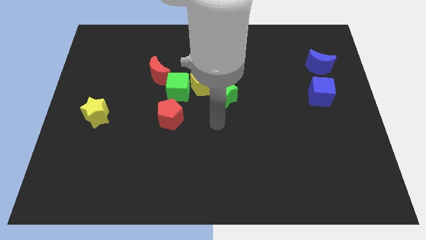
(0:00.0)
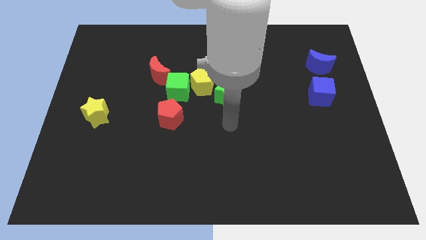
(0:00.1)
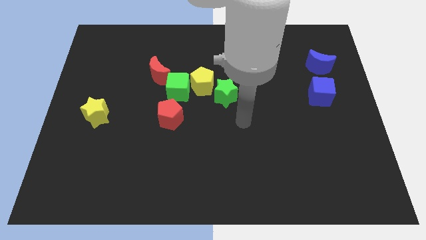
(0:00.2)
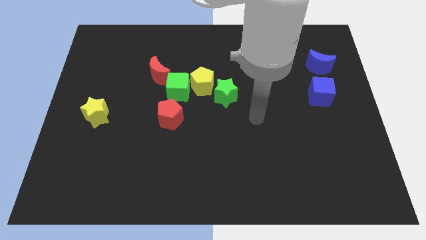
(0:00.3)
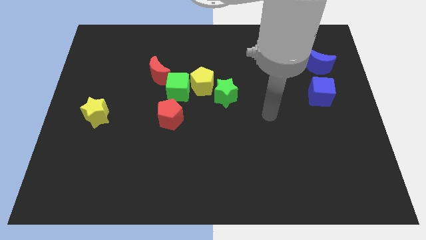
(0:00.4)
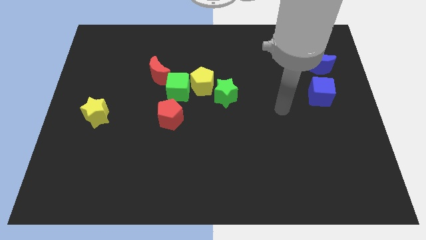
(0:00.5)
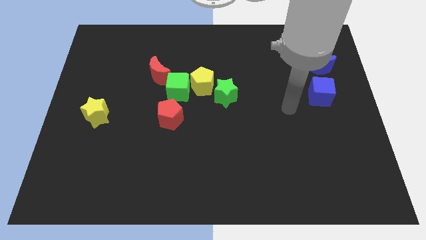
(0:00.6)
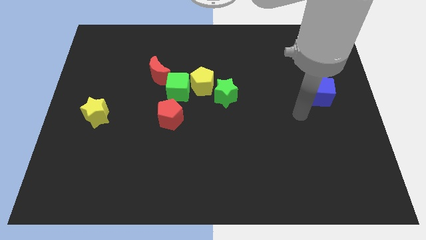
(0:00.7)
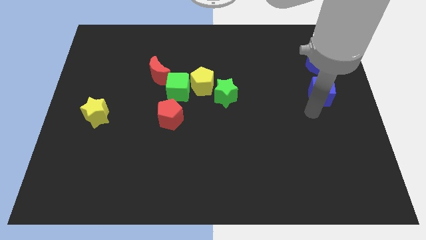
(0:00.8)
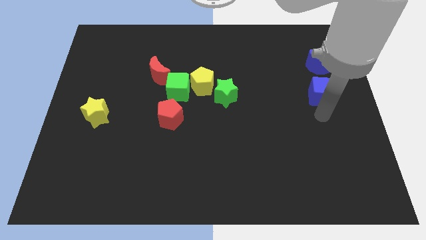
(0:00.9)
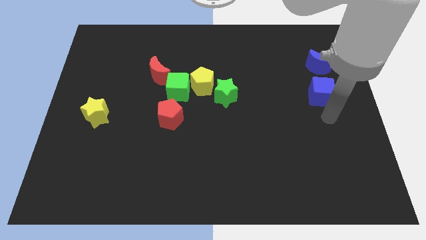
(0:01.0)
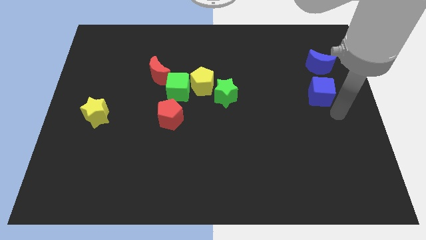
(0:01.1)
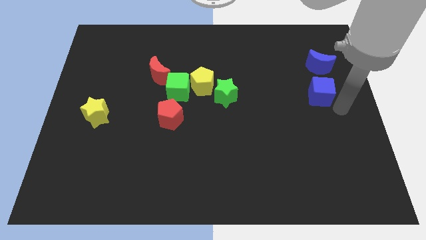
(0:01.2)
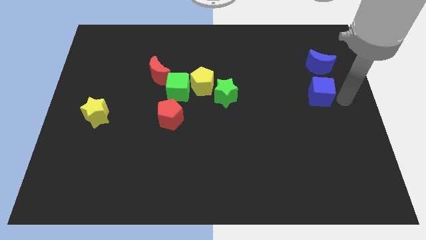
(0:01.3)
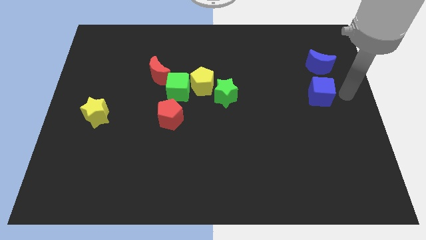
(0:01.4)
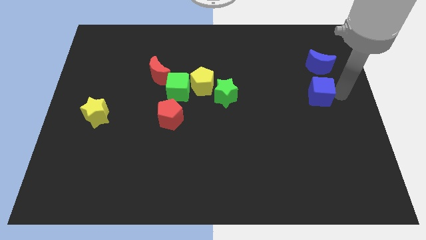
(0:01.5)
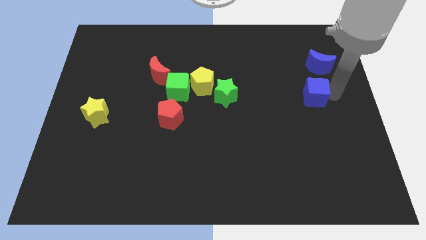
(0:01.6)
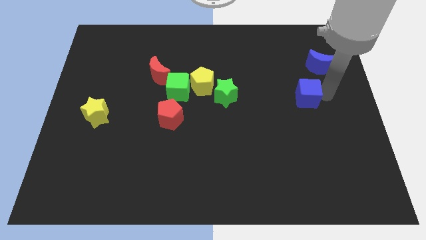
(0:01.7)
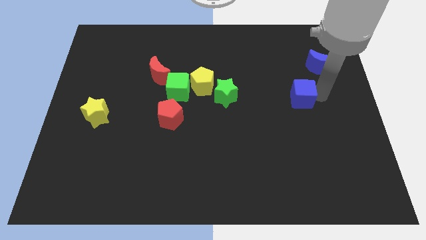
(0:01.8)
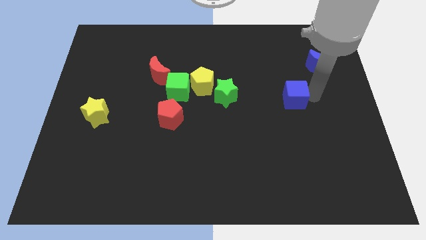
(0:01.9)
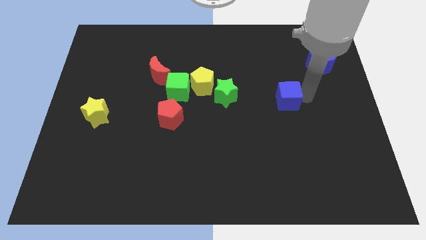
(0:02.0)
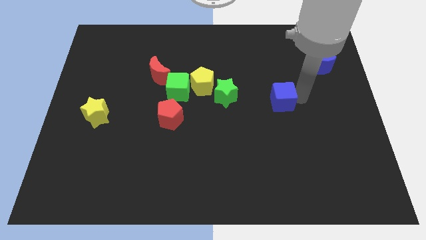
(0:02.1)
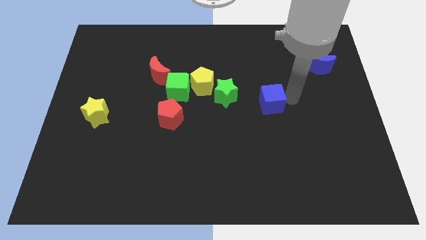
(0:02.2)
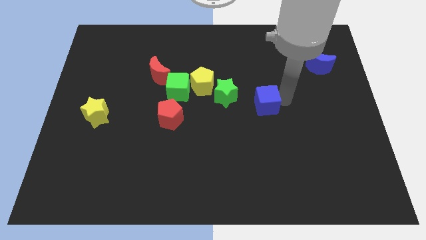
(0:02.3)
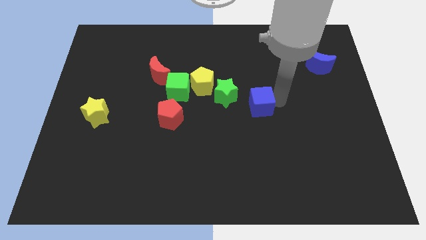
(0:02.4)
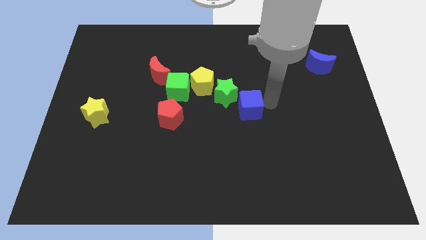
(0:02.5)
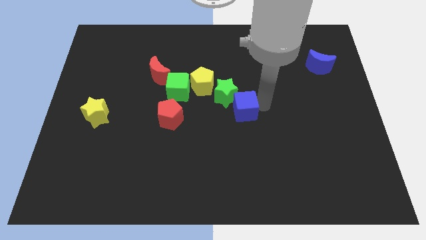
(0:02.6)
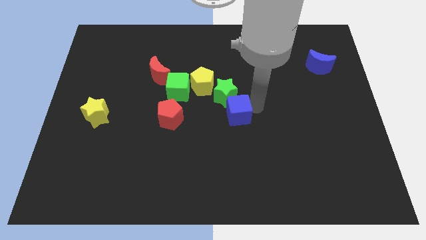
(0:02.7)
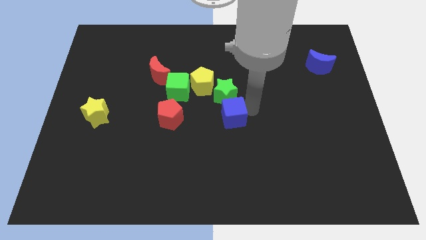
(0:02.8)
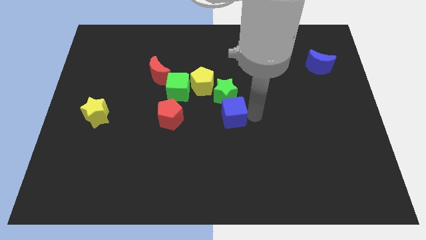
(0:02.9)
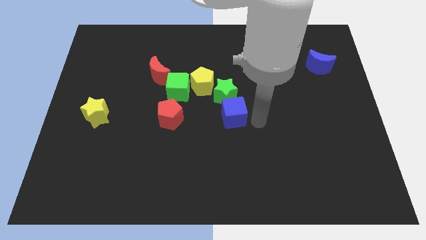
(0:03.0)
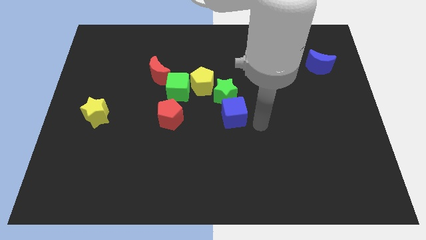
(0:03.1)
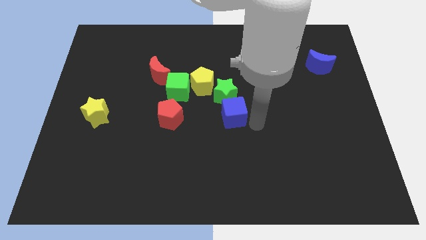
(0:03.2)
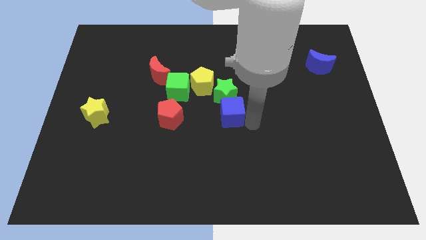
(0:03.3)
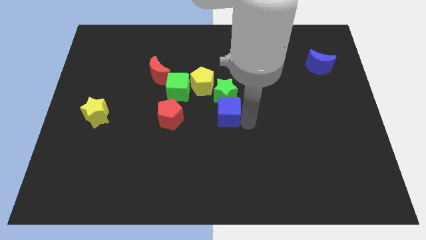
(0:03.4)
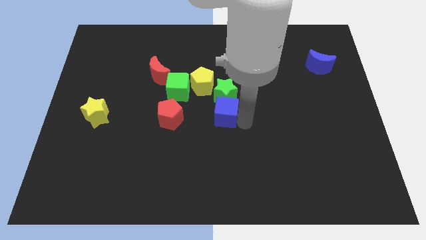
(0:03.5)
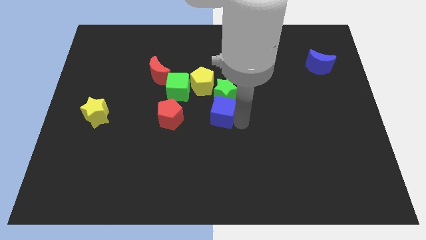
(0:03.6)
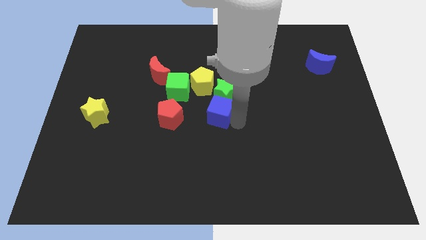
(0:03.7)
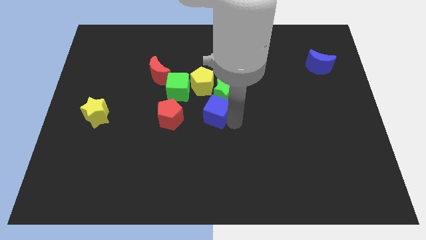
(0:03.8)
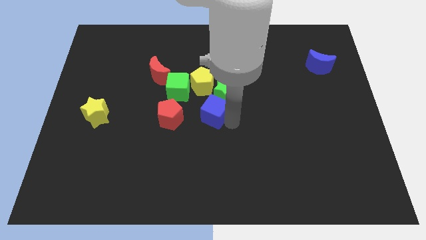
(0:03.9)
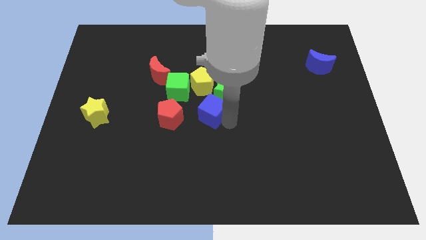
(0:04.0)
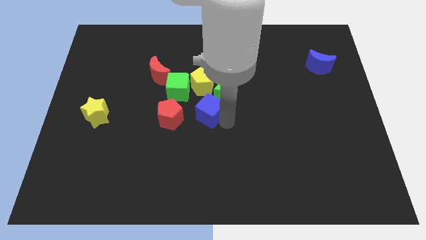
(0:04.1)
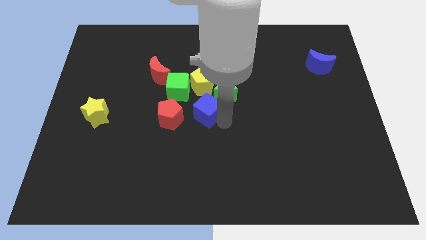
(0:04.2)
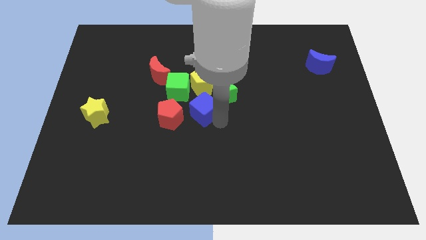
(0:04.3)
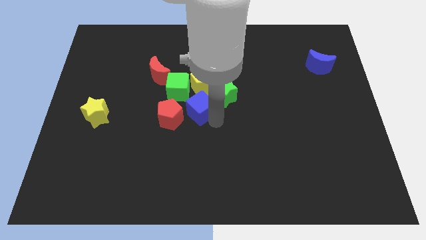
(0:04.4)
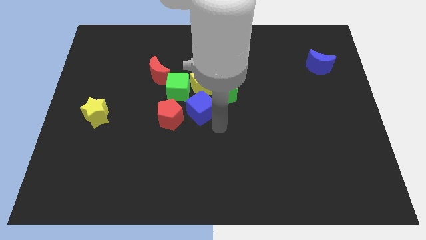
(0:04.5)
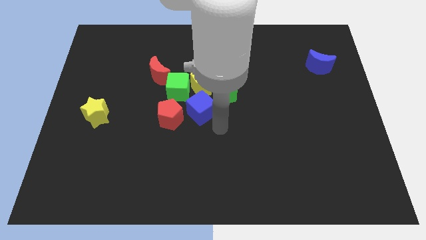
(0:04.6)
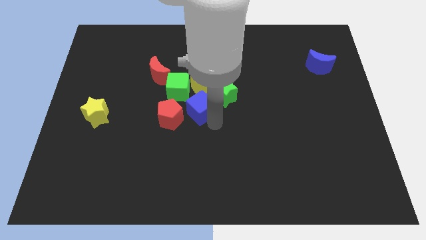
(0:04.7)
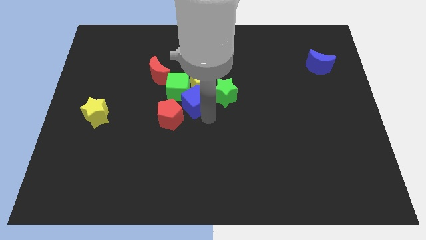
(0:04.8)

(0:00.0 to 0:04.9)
move the blue cube to the green cube

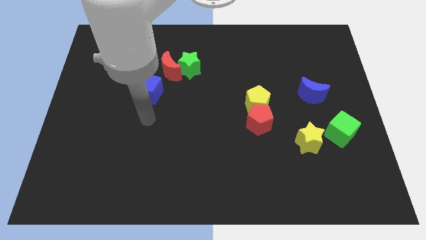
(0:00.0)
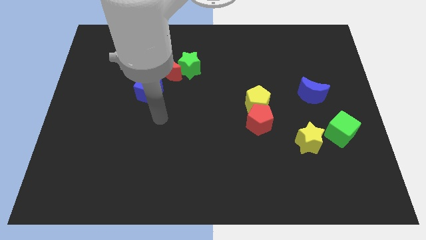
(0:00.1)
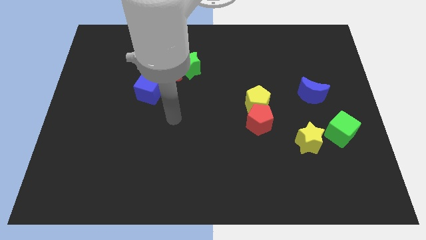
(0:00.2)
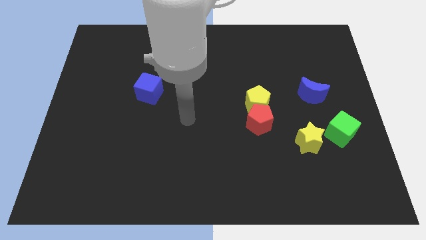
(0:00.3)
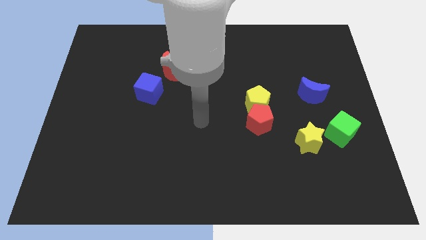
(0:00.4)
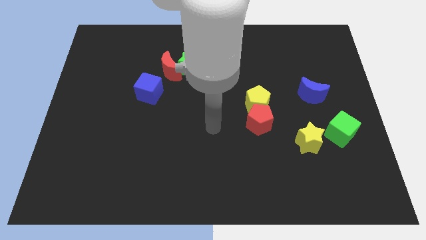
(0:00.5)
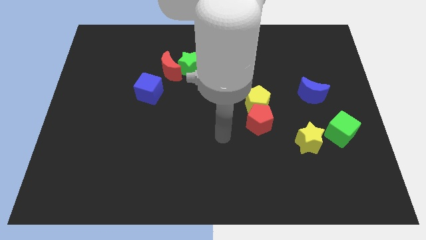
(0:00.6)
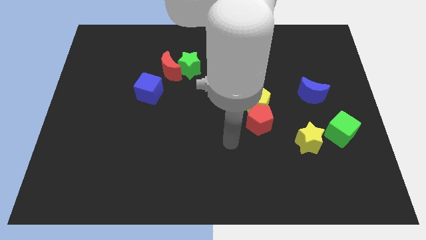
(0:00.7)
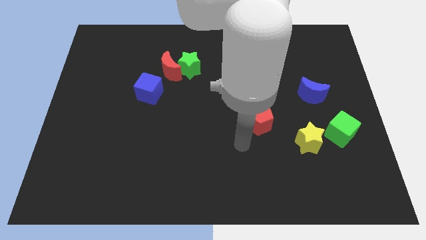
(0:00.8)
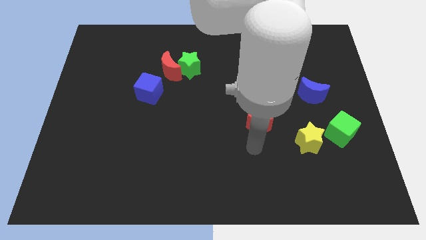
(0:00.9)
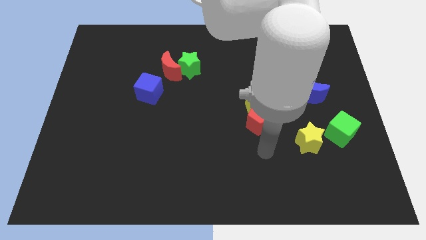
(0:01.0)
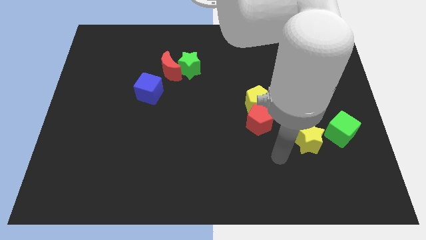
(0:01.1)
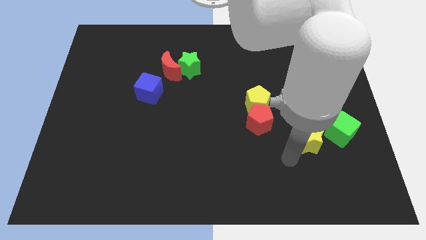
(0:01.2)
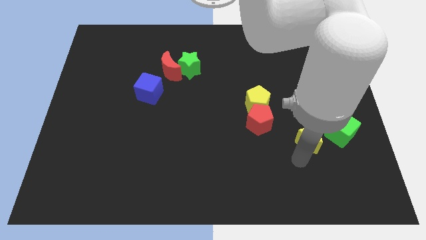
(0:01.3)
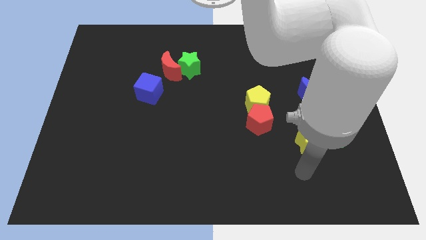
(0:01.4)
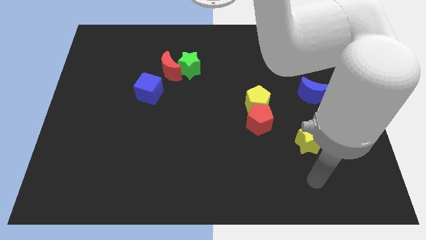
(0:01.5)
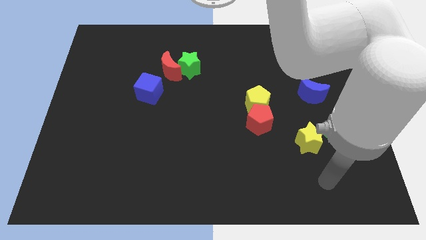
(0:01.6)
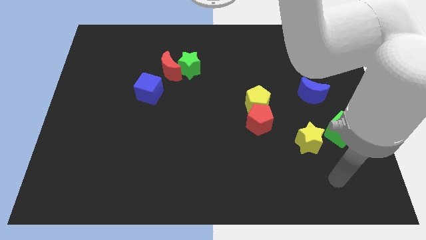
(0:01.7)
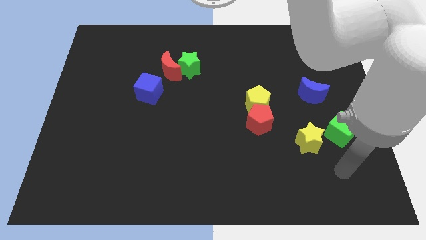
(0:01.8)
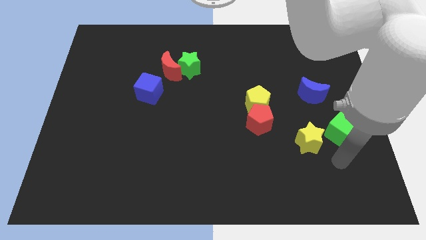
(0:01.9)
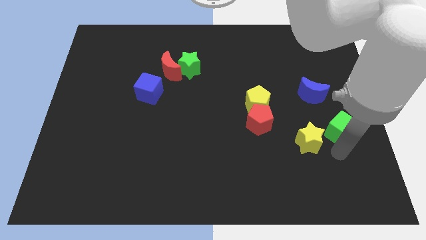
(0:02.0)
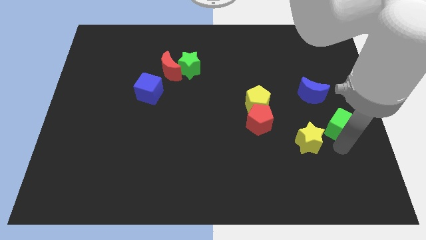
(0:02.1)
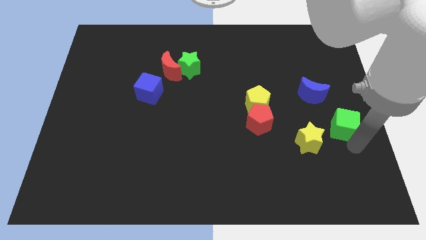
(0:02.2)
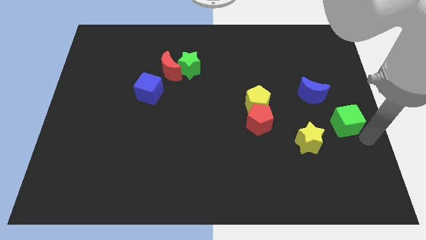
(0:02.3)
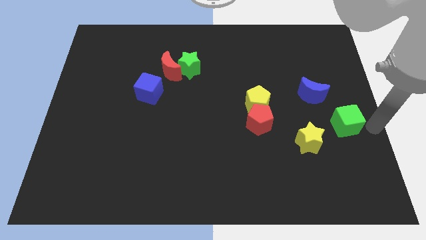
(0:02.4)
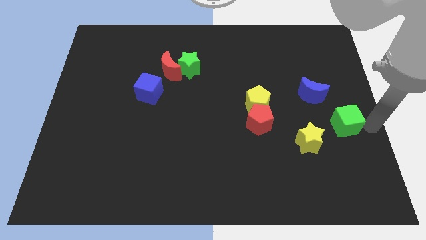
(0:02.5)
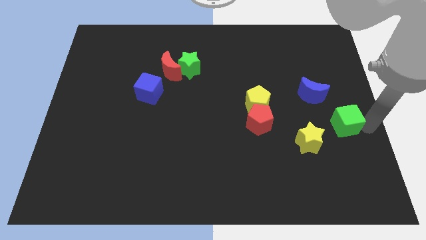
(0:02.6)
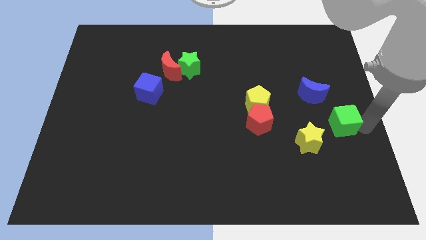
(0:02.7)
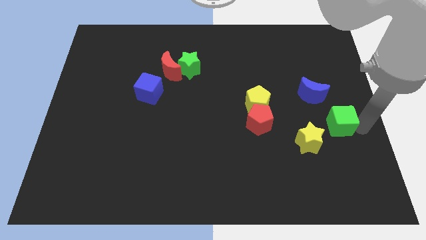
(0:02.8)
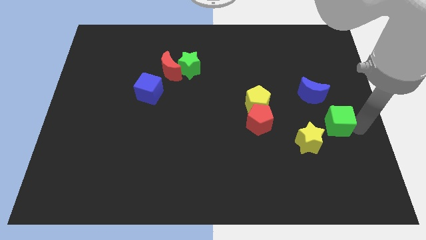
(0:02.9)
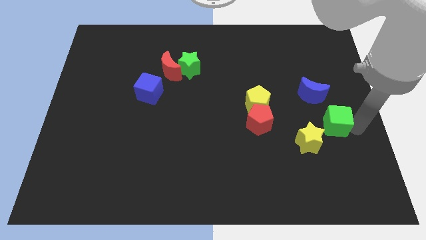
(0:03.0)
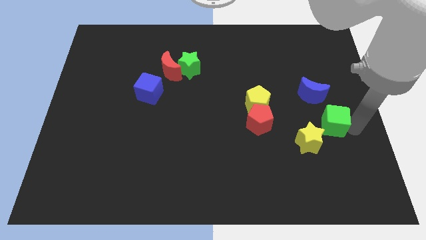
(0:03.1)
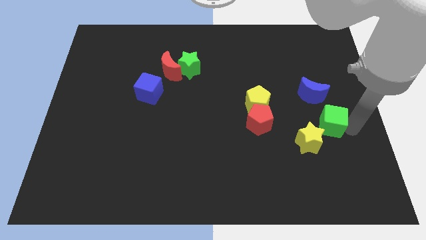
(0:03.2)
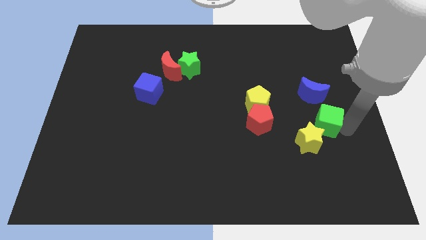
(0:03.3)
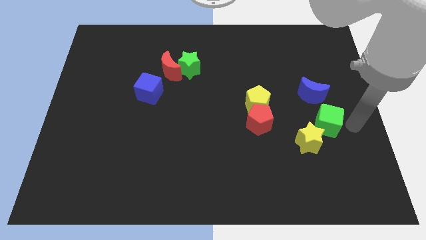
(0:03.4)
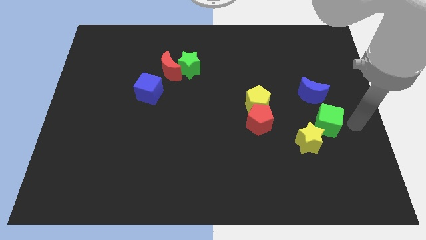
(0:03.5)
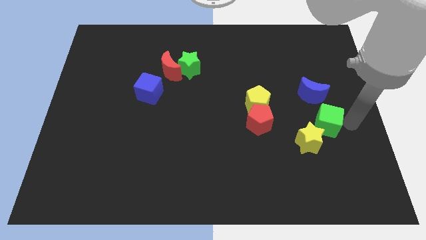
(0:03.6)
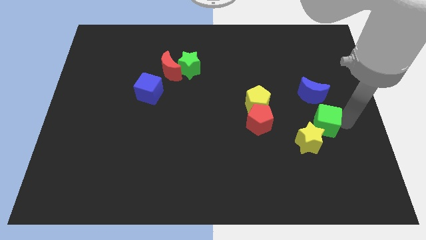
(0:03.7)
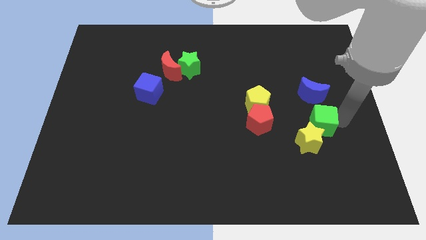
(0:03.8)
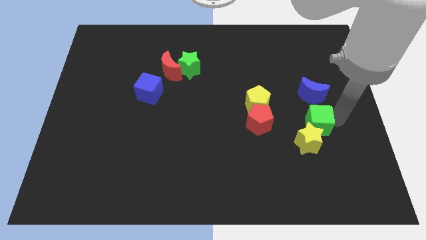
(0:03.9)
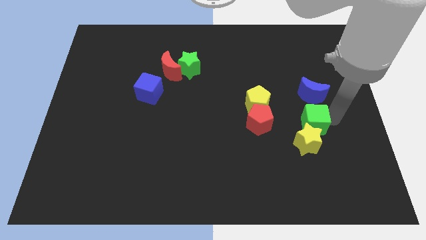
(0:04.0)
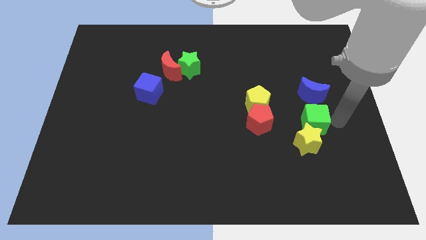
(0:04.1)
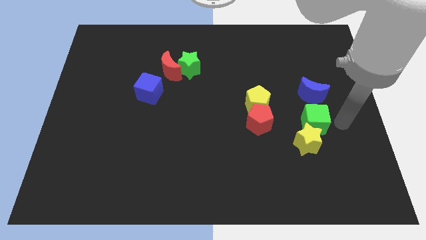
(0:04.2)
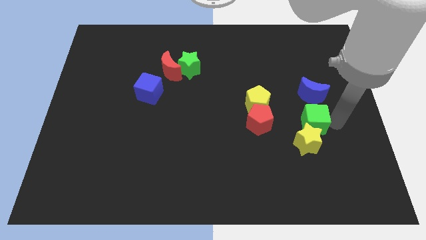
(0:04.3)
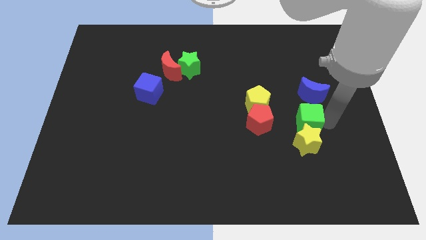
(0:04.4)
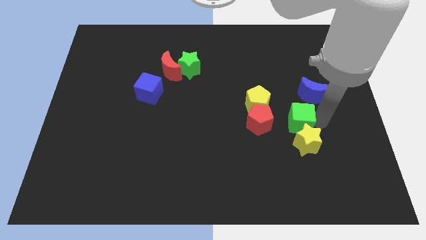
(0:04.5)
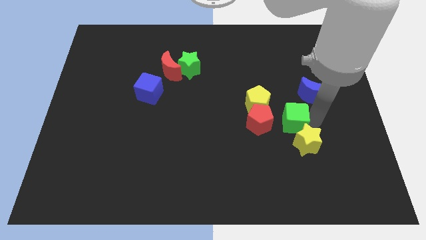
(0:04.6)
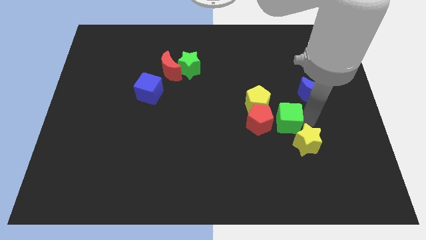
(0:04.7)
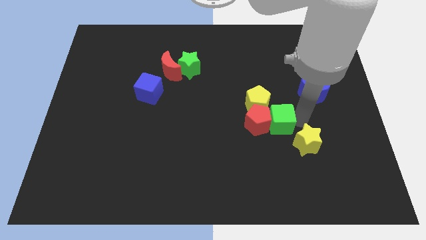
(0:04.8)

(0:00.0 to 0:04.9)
slide the green cube next to the red pentagon
